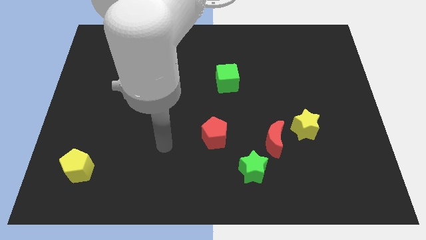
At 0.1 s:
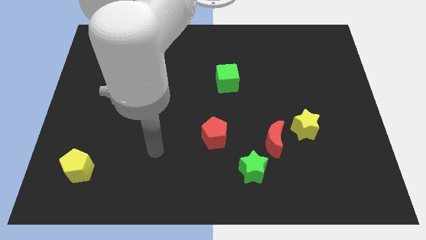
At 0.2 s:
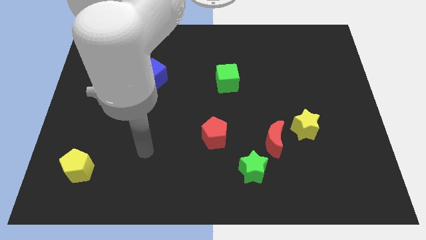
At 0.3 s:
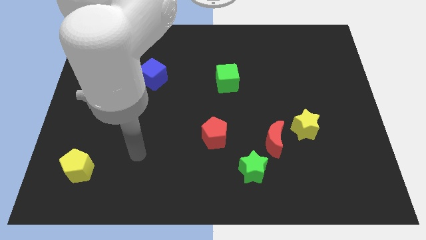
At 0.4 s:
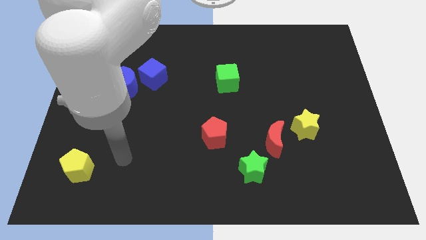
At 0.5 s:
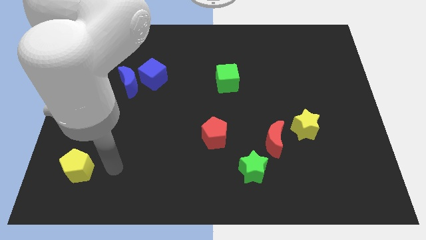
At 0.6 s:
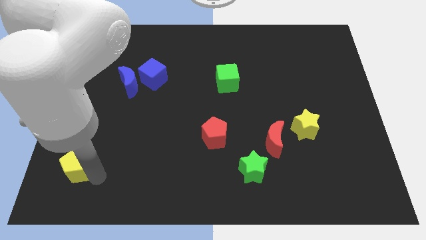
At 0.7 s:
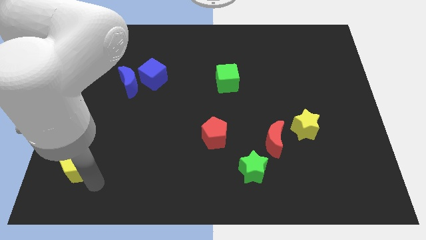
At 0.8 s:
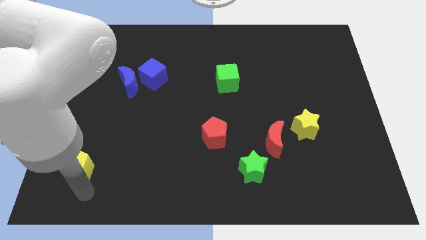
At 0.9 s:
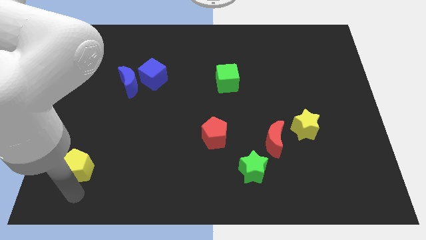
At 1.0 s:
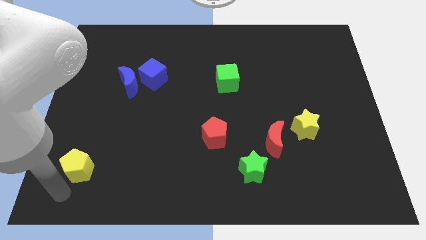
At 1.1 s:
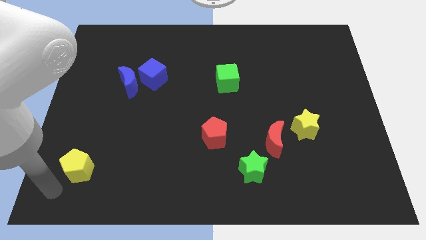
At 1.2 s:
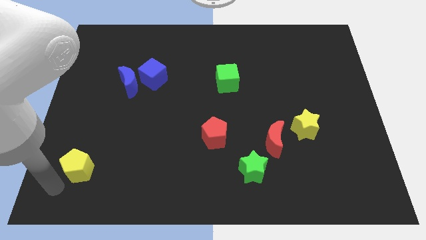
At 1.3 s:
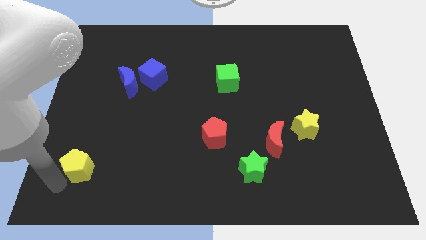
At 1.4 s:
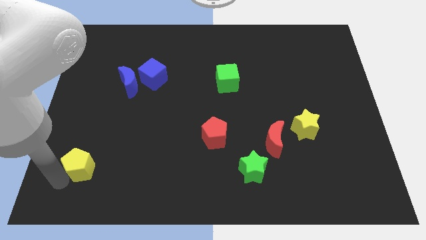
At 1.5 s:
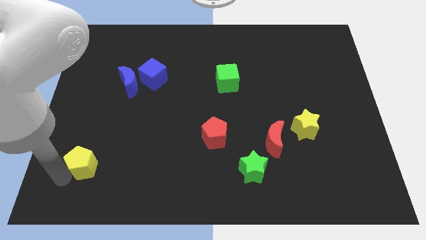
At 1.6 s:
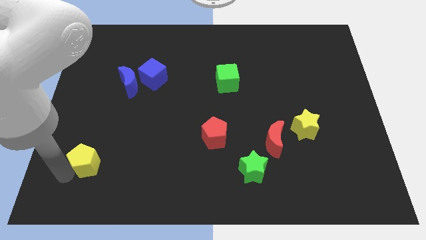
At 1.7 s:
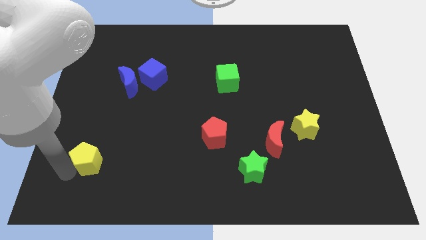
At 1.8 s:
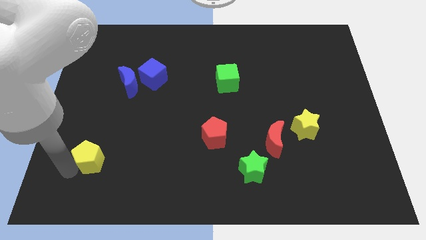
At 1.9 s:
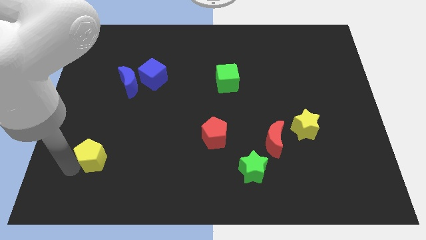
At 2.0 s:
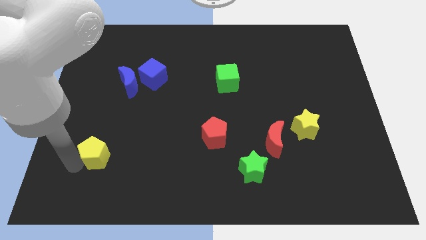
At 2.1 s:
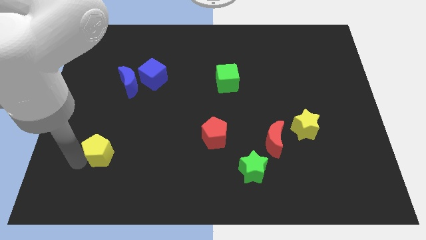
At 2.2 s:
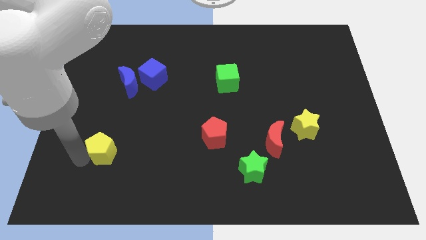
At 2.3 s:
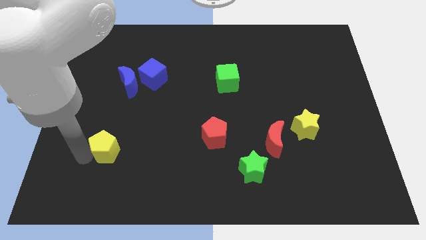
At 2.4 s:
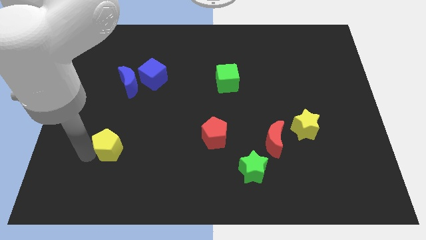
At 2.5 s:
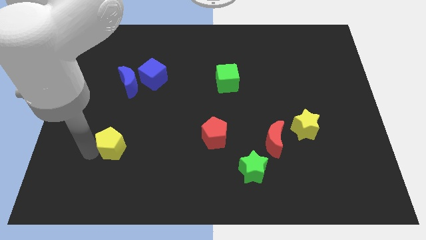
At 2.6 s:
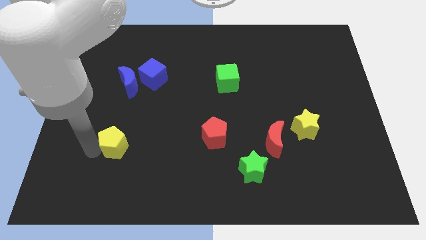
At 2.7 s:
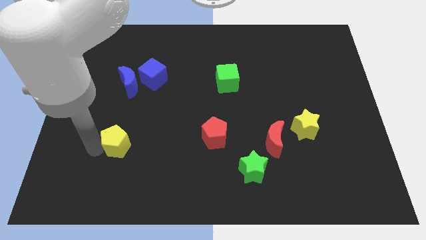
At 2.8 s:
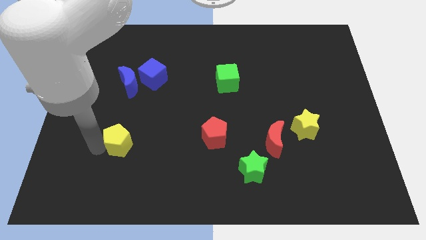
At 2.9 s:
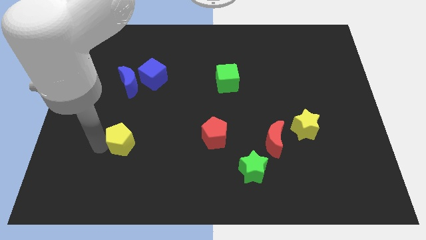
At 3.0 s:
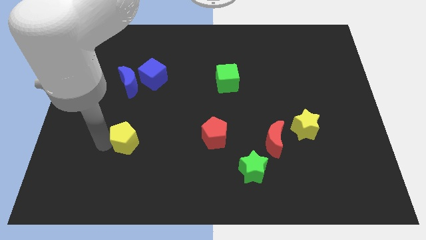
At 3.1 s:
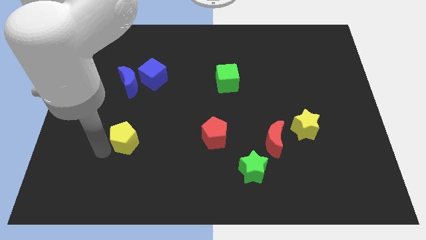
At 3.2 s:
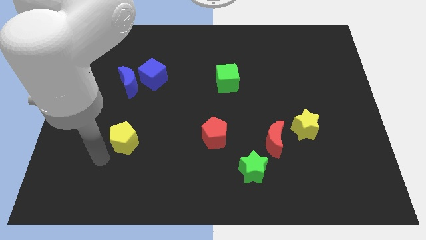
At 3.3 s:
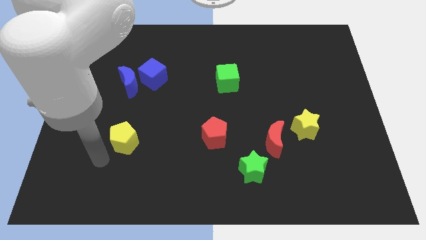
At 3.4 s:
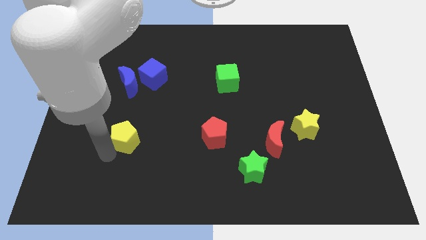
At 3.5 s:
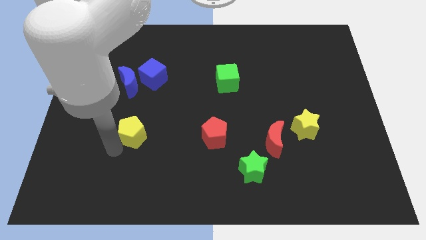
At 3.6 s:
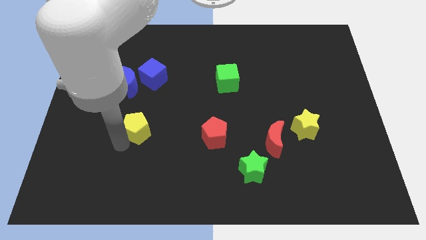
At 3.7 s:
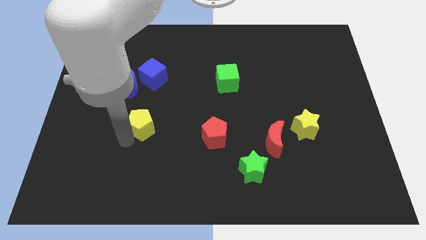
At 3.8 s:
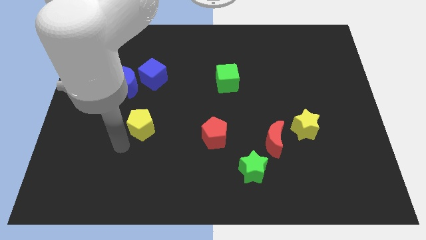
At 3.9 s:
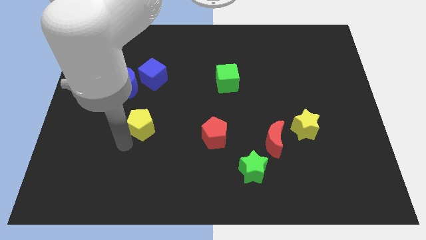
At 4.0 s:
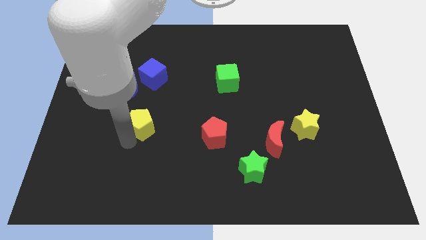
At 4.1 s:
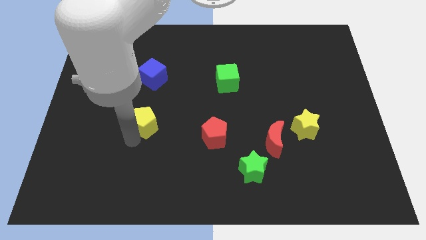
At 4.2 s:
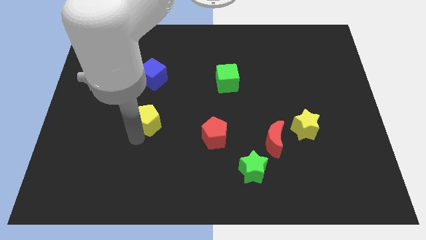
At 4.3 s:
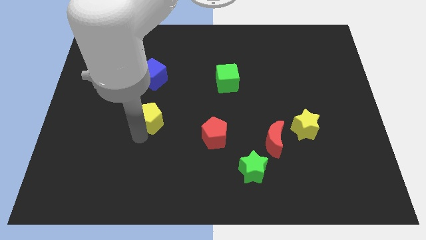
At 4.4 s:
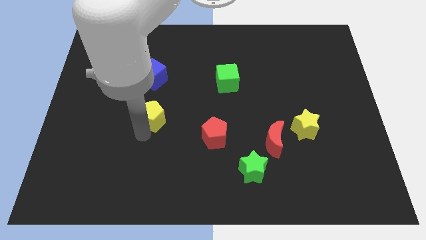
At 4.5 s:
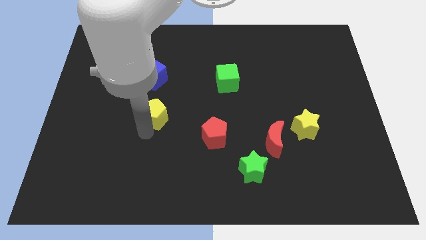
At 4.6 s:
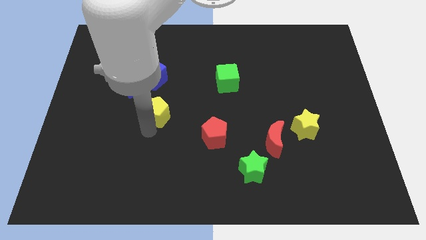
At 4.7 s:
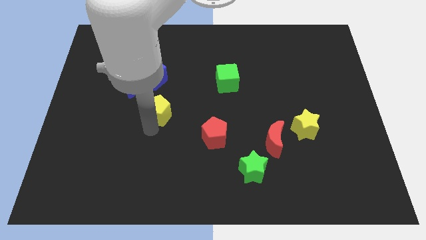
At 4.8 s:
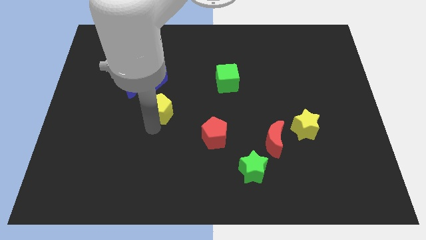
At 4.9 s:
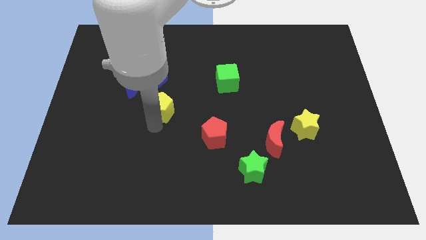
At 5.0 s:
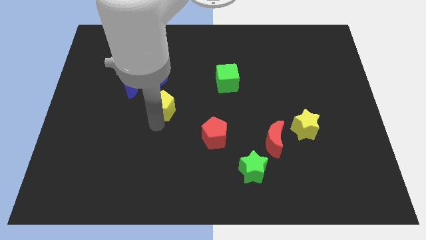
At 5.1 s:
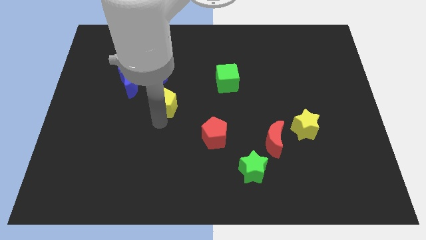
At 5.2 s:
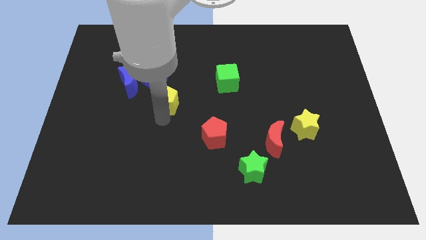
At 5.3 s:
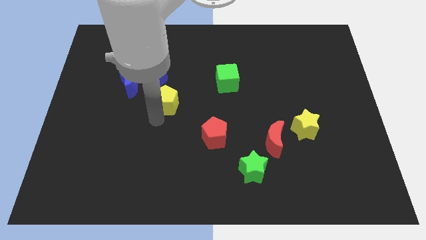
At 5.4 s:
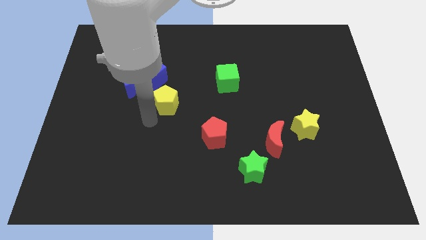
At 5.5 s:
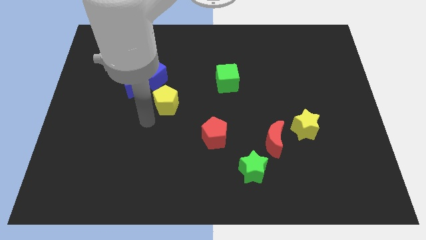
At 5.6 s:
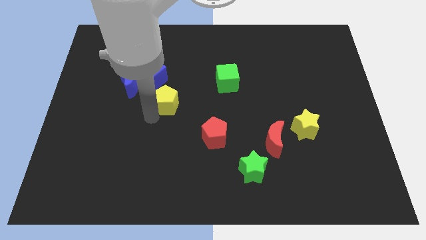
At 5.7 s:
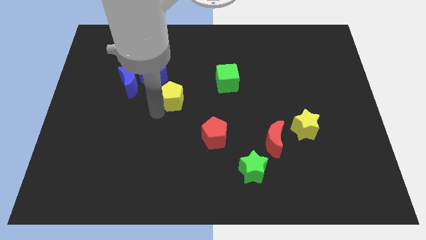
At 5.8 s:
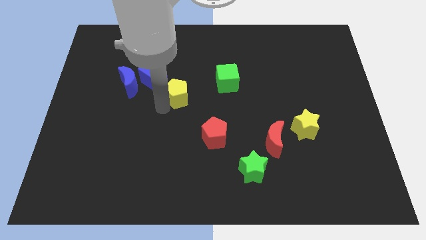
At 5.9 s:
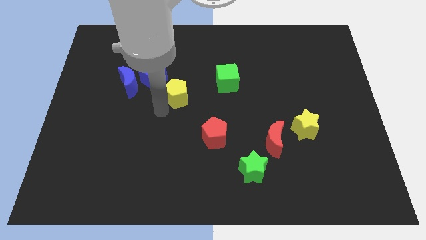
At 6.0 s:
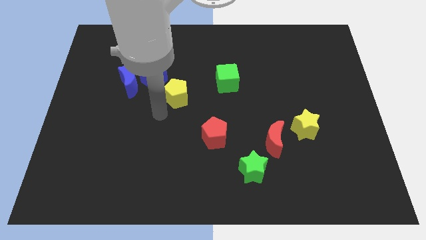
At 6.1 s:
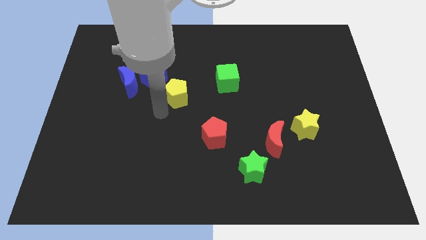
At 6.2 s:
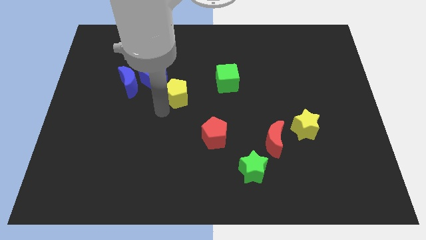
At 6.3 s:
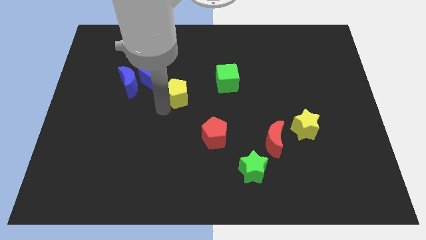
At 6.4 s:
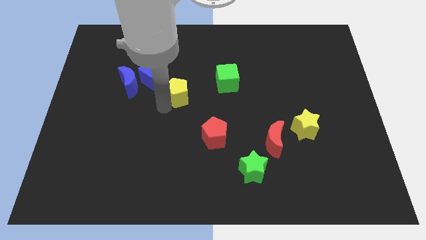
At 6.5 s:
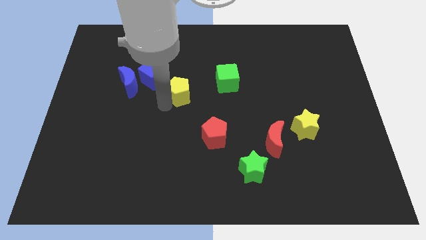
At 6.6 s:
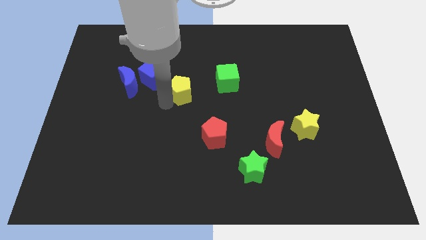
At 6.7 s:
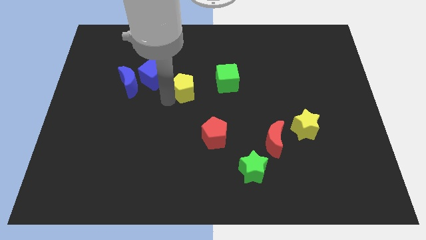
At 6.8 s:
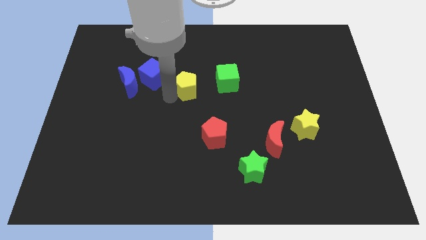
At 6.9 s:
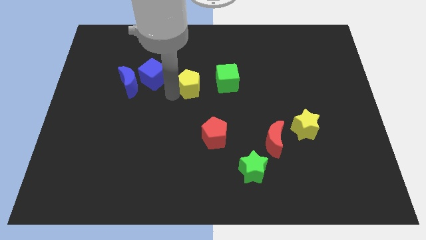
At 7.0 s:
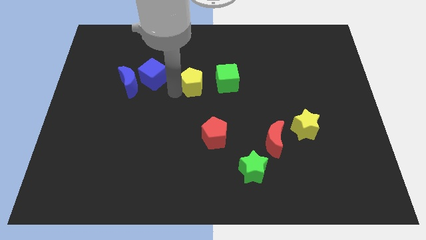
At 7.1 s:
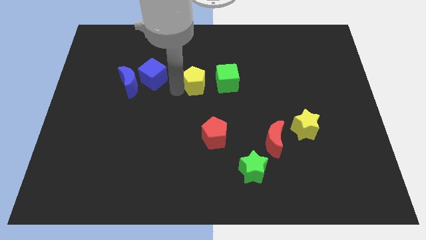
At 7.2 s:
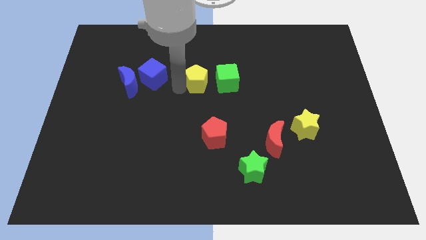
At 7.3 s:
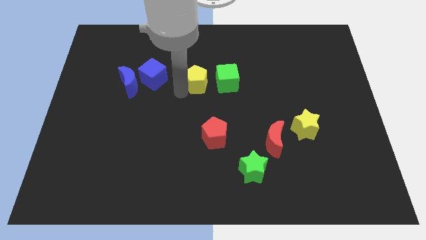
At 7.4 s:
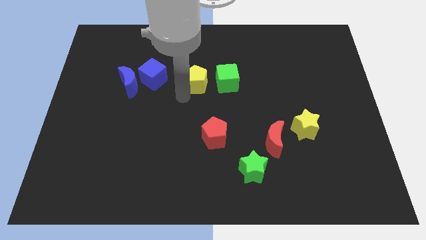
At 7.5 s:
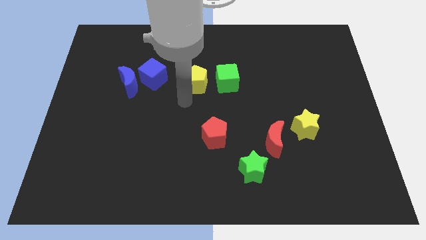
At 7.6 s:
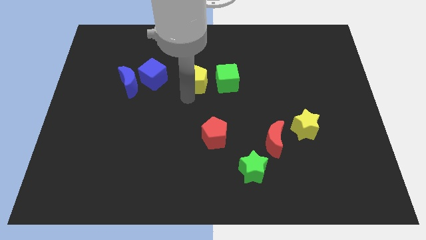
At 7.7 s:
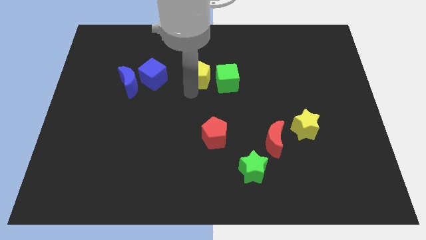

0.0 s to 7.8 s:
put the yellow pentagon to the top left side of the green cube
